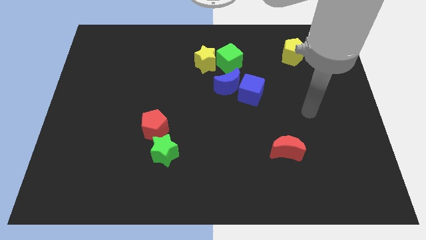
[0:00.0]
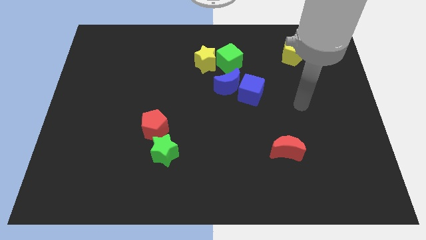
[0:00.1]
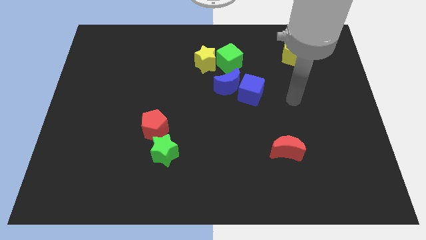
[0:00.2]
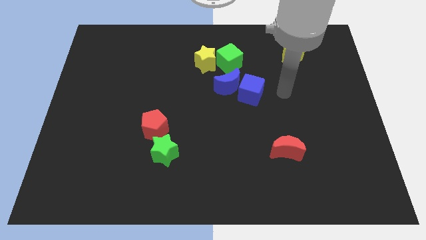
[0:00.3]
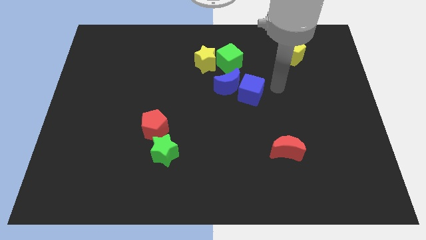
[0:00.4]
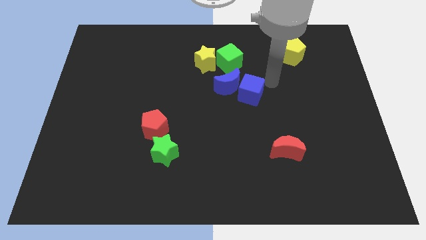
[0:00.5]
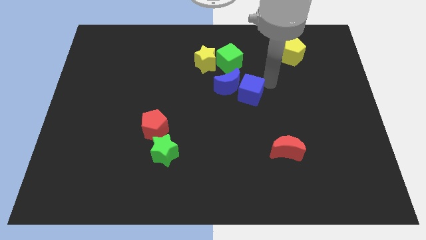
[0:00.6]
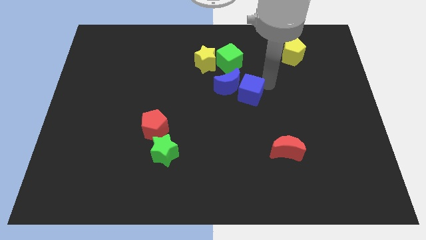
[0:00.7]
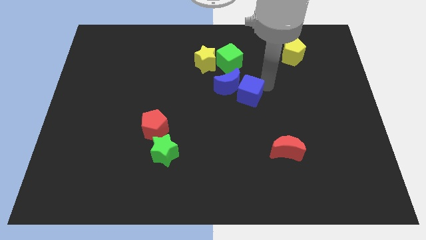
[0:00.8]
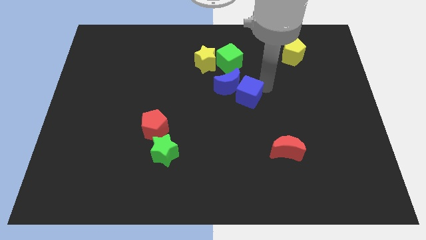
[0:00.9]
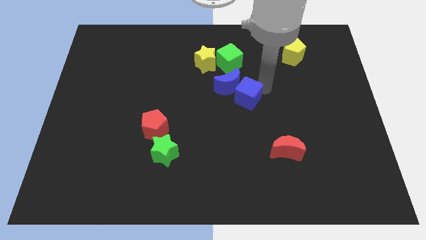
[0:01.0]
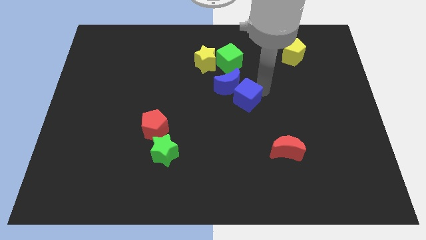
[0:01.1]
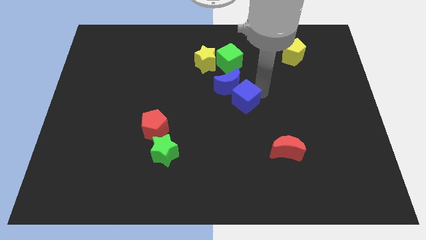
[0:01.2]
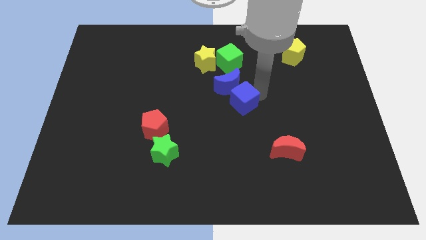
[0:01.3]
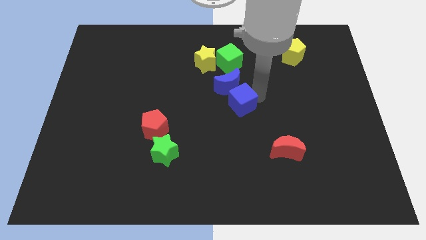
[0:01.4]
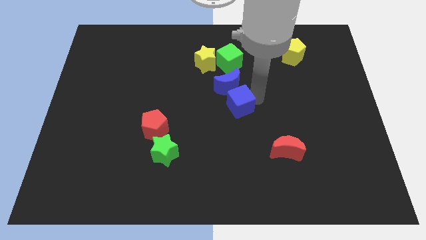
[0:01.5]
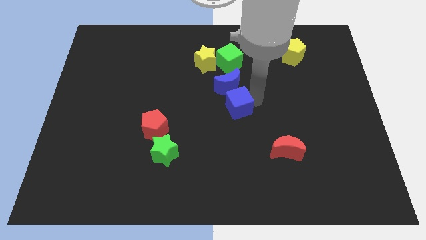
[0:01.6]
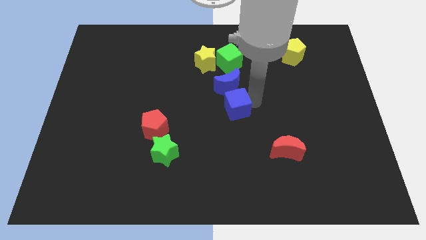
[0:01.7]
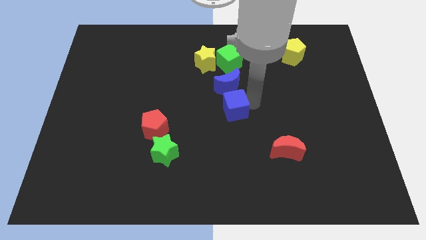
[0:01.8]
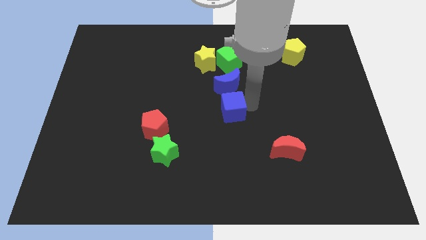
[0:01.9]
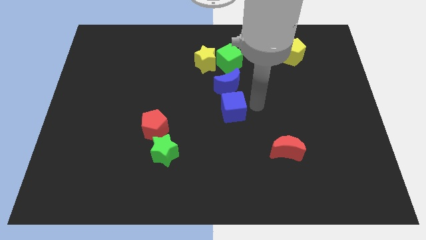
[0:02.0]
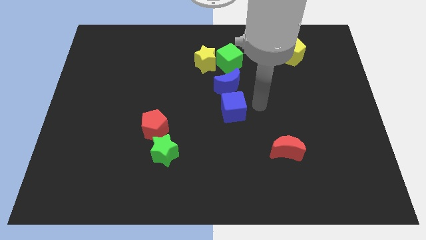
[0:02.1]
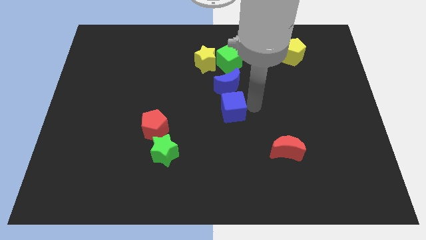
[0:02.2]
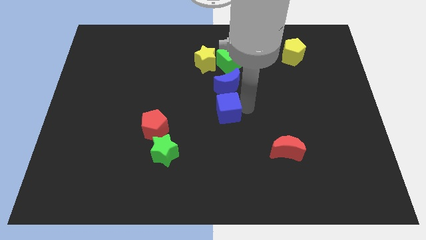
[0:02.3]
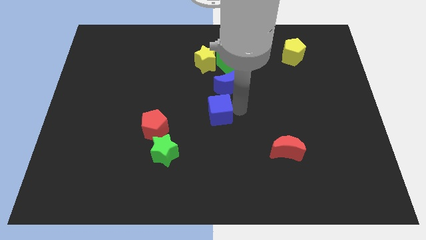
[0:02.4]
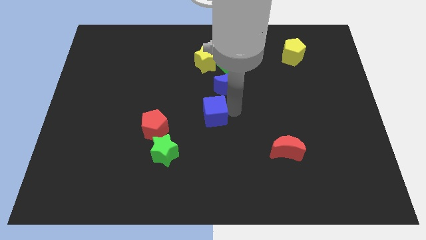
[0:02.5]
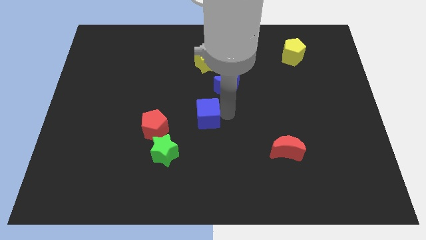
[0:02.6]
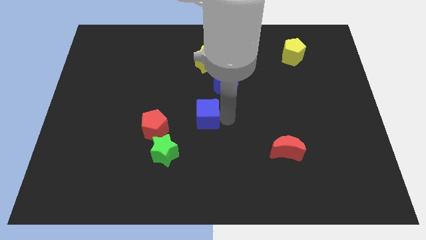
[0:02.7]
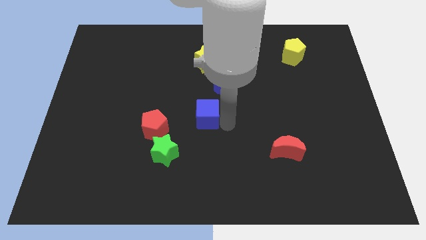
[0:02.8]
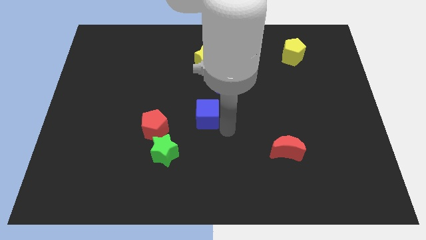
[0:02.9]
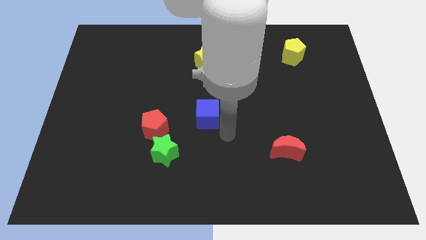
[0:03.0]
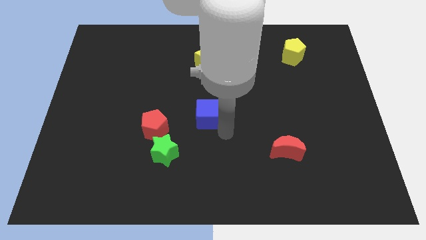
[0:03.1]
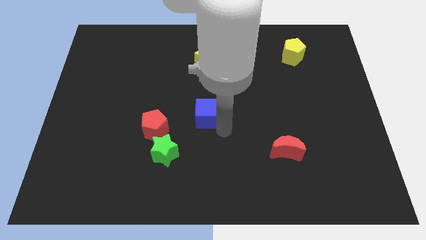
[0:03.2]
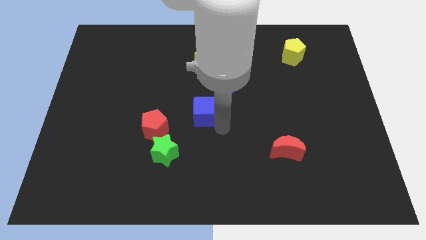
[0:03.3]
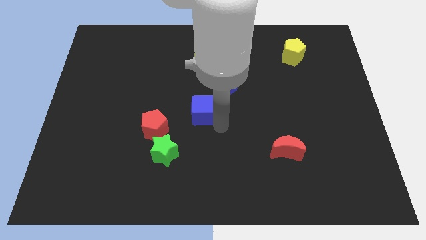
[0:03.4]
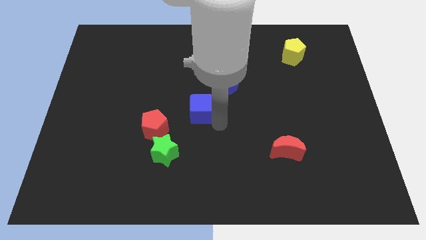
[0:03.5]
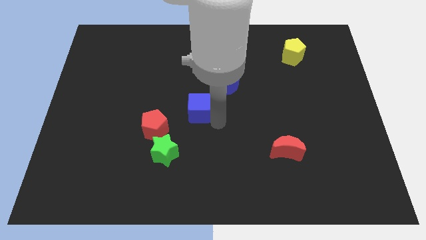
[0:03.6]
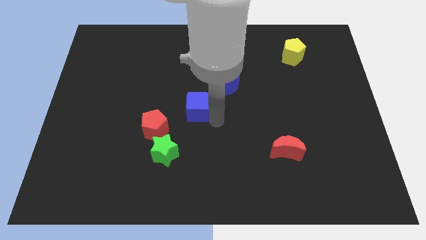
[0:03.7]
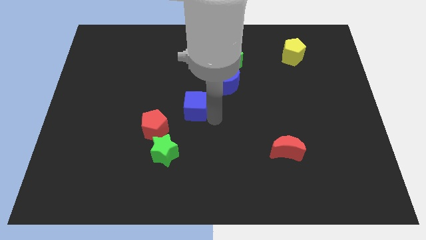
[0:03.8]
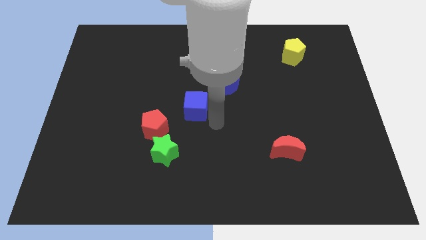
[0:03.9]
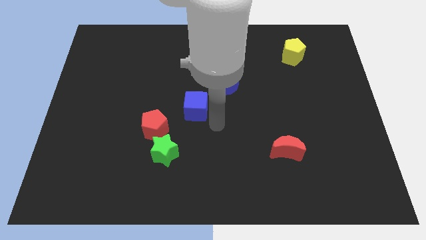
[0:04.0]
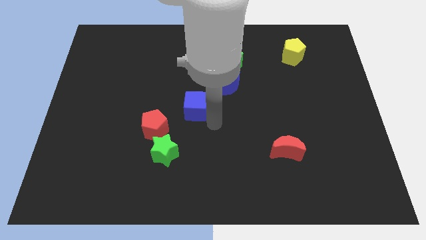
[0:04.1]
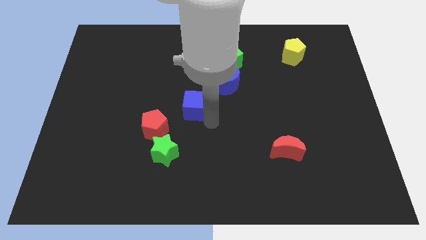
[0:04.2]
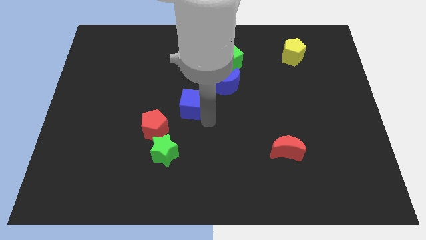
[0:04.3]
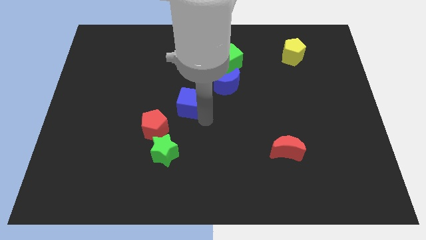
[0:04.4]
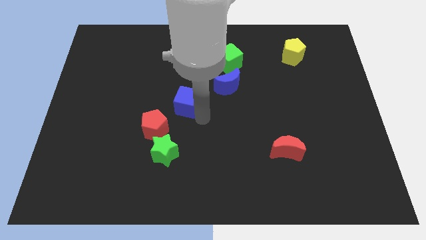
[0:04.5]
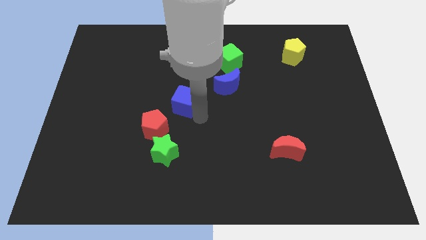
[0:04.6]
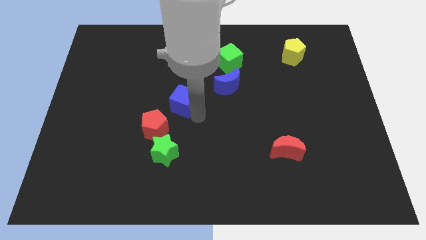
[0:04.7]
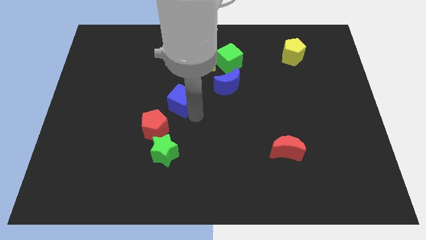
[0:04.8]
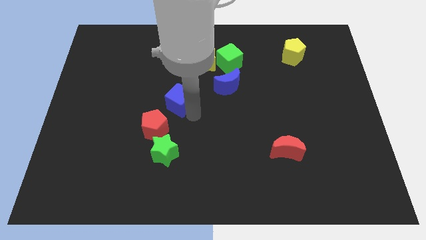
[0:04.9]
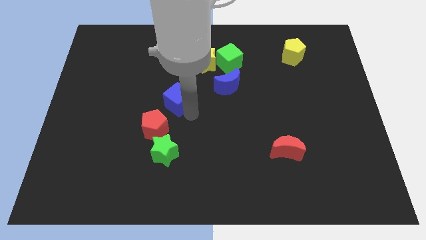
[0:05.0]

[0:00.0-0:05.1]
move the blue cube to the top of the red pentagon

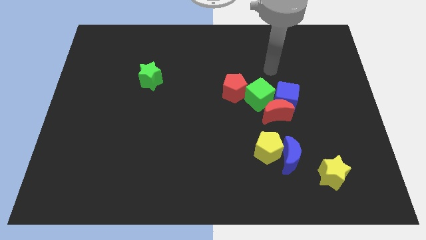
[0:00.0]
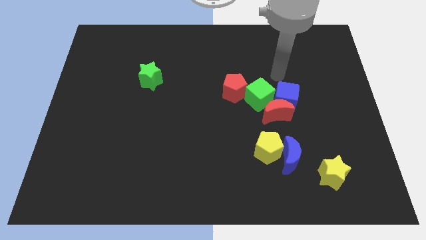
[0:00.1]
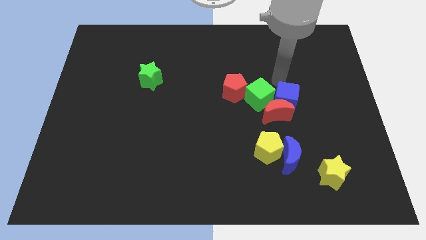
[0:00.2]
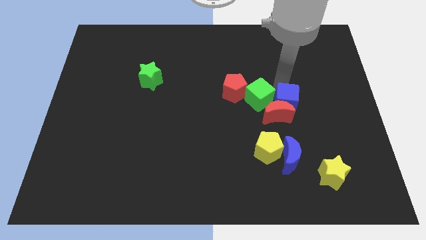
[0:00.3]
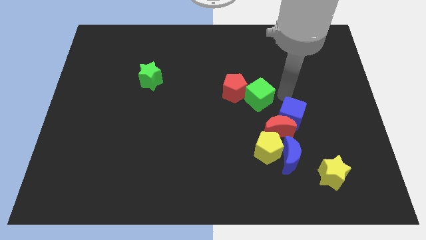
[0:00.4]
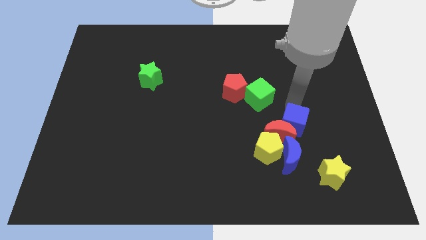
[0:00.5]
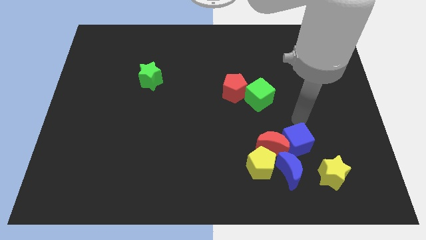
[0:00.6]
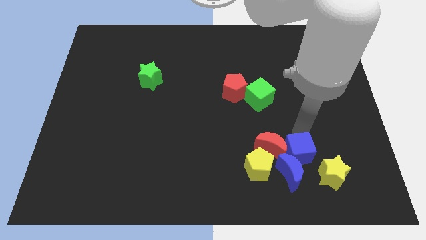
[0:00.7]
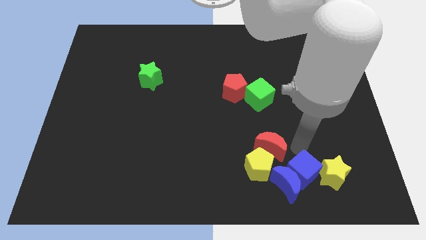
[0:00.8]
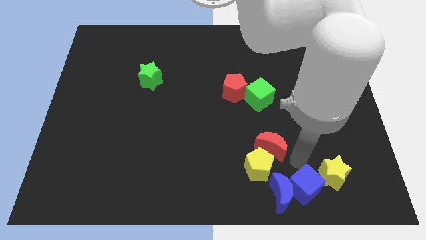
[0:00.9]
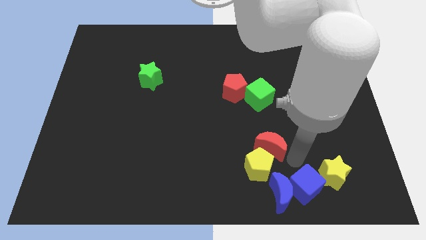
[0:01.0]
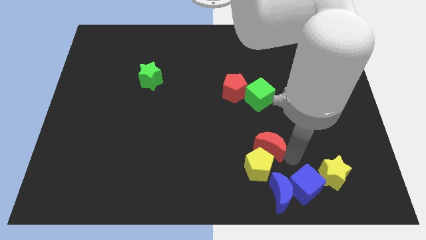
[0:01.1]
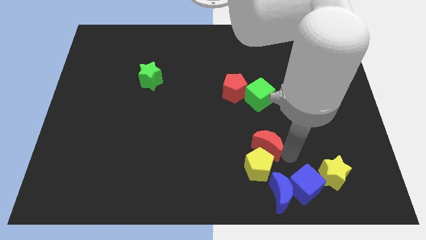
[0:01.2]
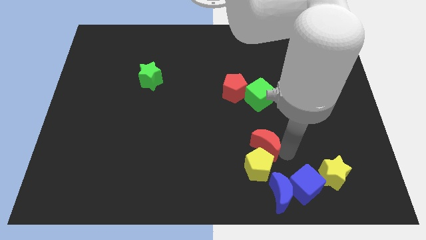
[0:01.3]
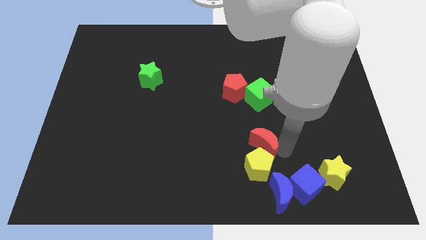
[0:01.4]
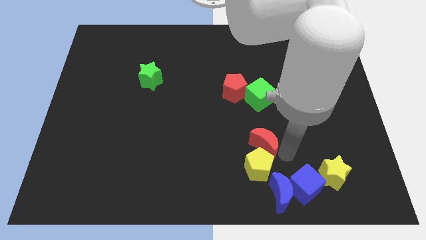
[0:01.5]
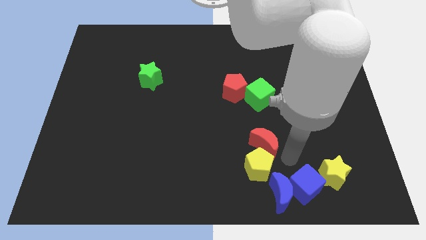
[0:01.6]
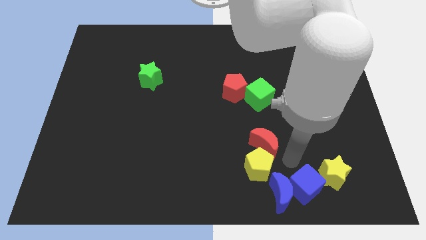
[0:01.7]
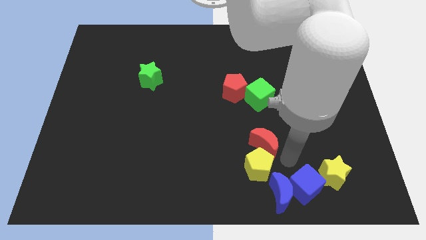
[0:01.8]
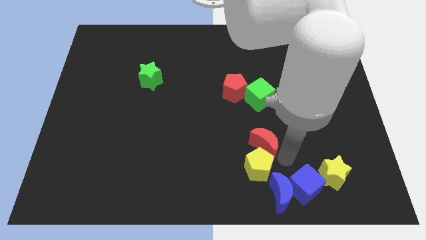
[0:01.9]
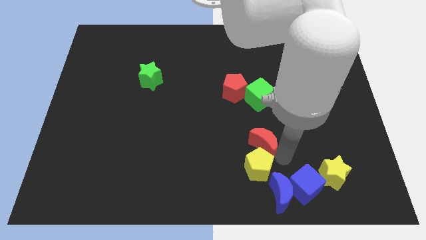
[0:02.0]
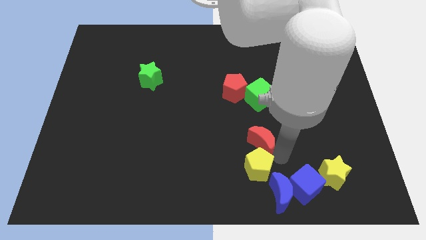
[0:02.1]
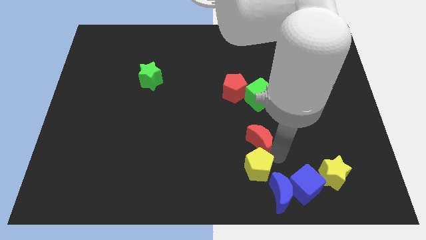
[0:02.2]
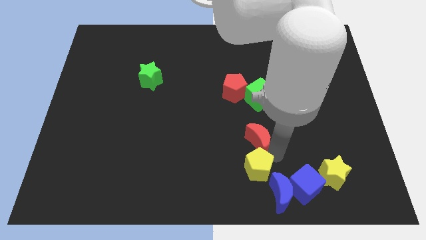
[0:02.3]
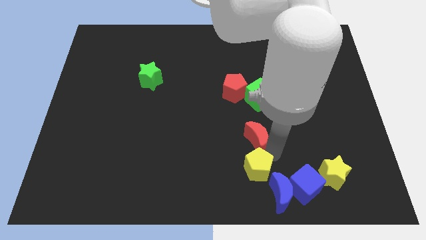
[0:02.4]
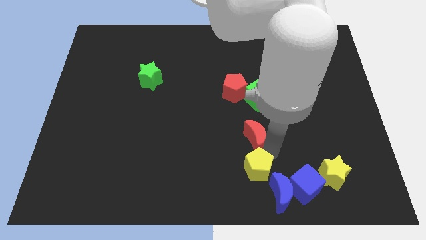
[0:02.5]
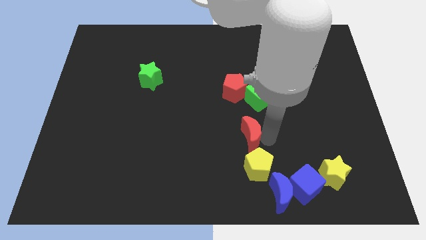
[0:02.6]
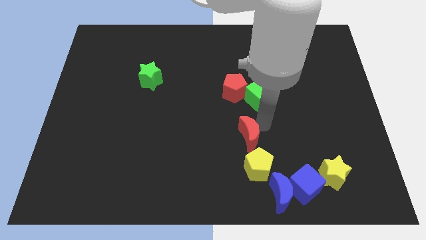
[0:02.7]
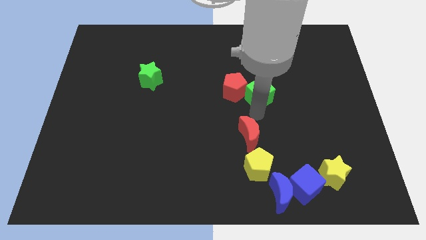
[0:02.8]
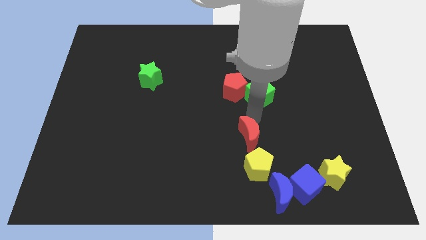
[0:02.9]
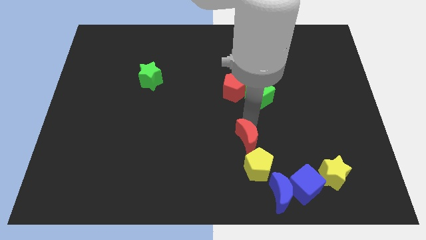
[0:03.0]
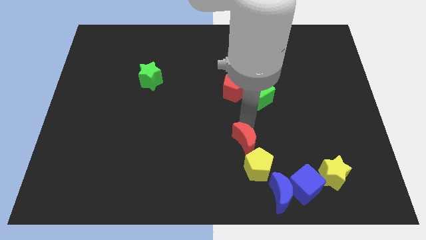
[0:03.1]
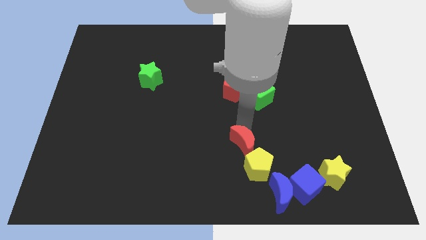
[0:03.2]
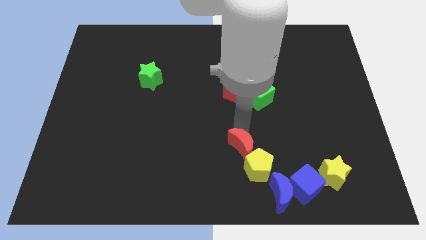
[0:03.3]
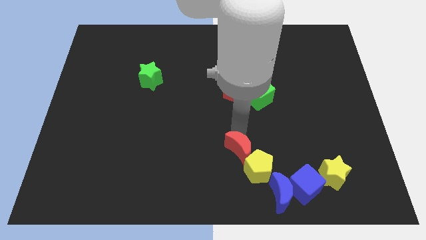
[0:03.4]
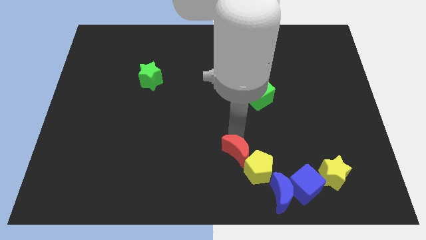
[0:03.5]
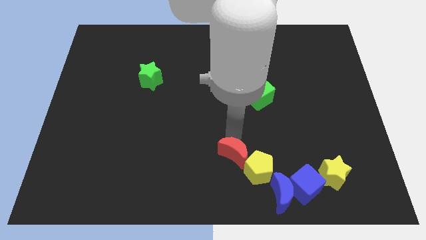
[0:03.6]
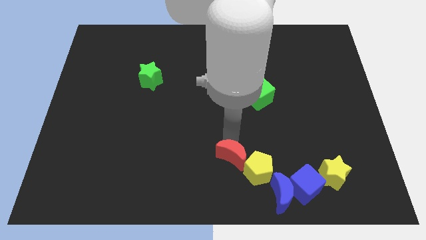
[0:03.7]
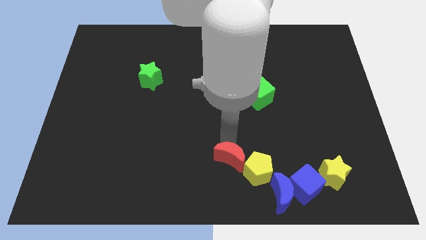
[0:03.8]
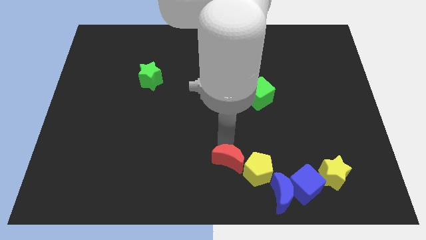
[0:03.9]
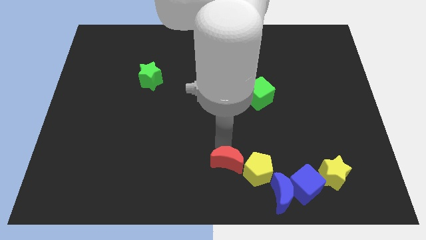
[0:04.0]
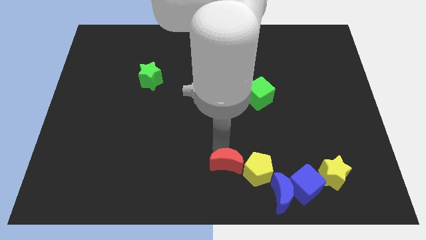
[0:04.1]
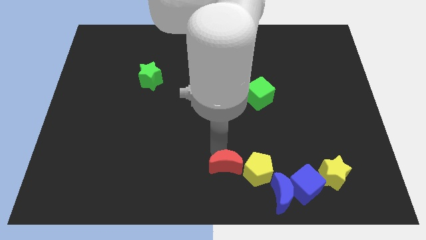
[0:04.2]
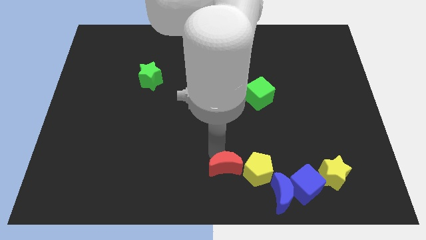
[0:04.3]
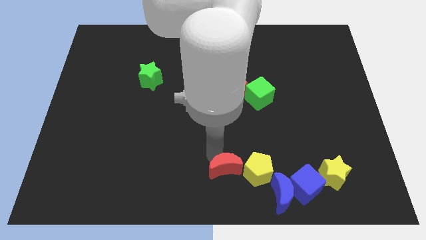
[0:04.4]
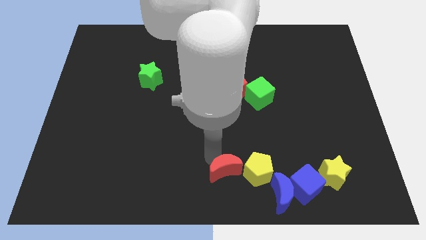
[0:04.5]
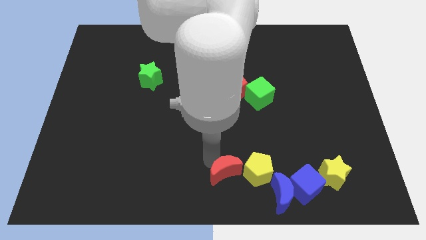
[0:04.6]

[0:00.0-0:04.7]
push the red moon to the bottom left side of the yellow pentagon
